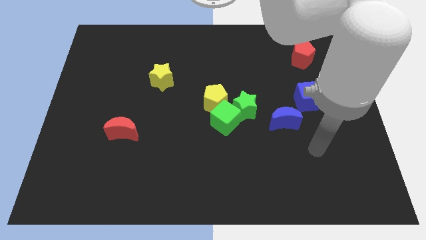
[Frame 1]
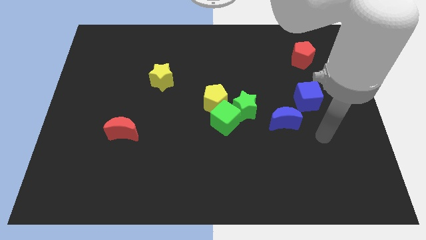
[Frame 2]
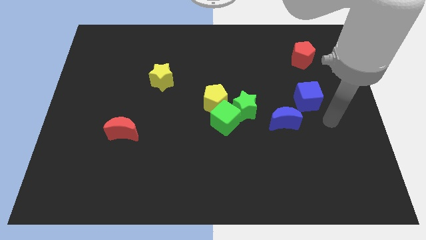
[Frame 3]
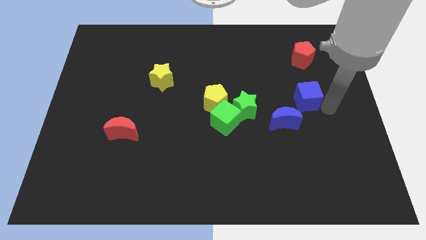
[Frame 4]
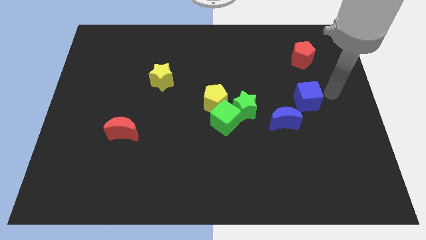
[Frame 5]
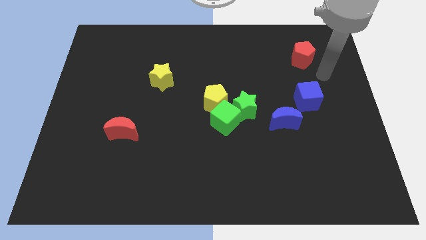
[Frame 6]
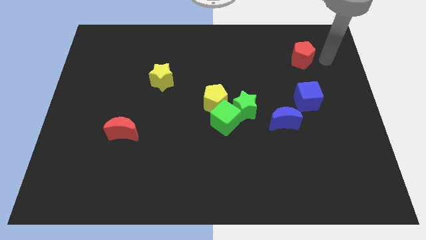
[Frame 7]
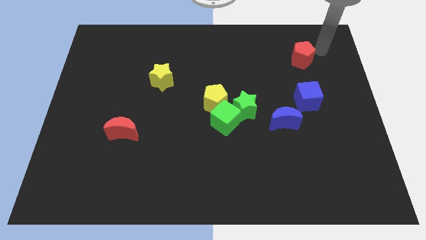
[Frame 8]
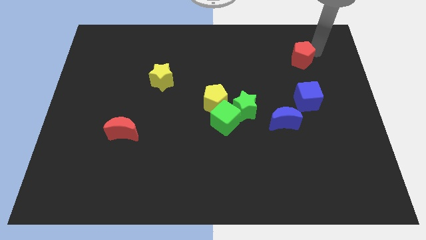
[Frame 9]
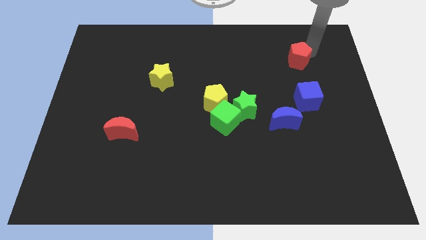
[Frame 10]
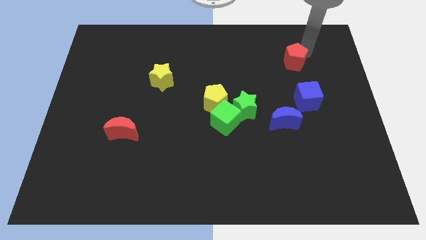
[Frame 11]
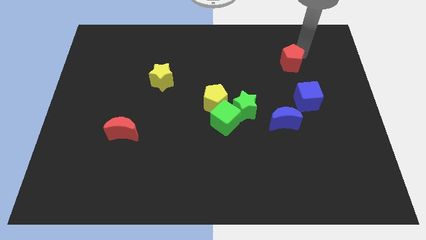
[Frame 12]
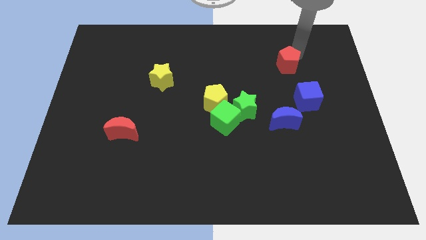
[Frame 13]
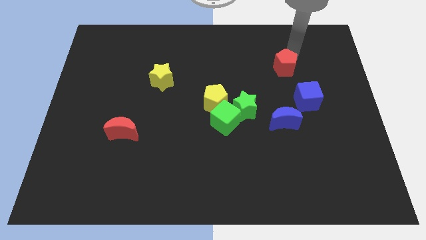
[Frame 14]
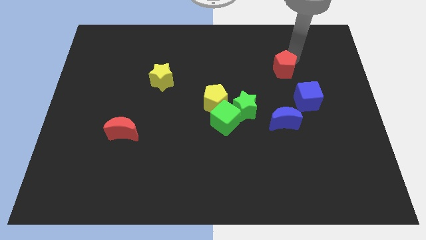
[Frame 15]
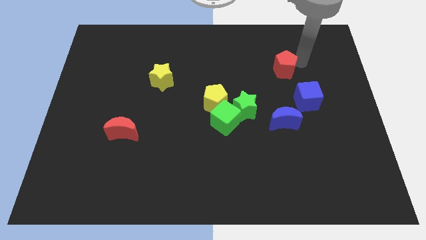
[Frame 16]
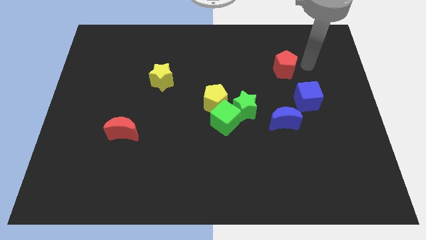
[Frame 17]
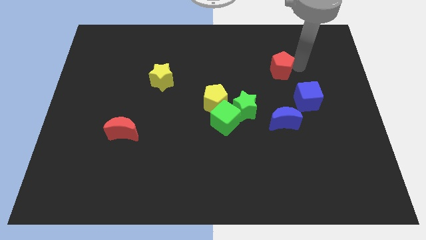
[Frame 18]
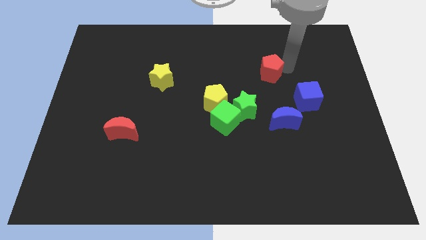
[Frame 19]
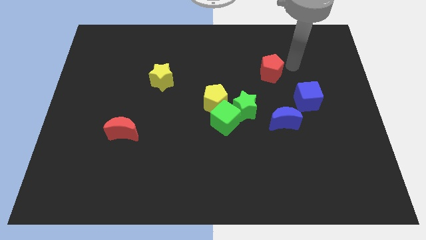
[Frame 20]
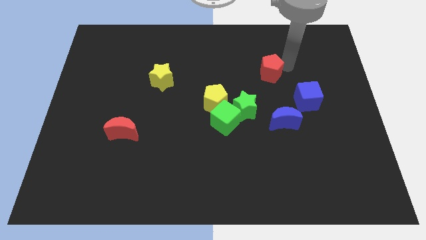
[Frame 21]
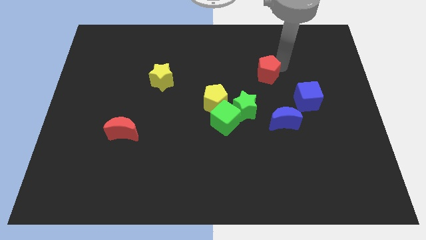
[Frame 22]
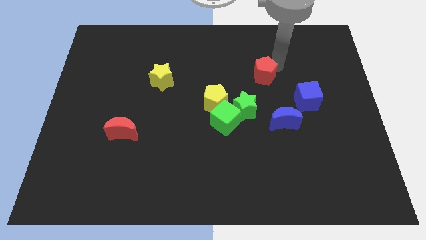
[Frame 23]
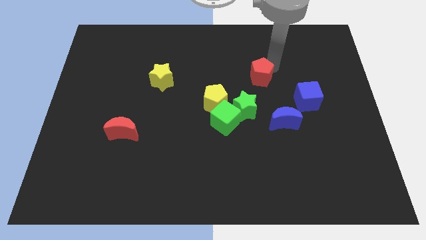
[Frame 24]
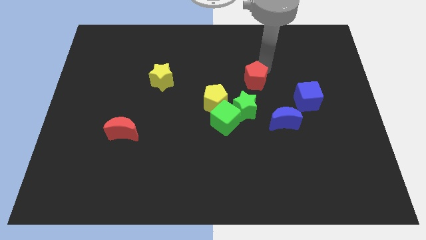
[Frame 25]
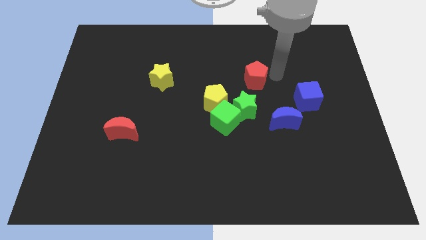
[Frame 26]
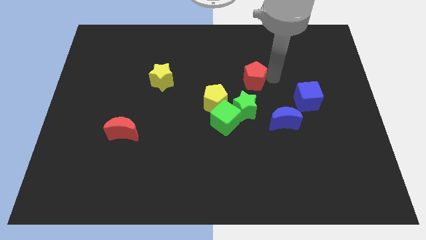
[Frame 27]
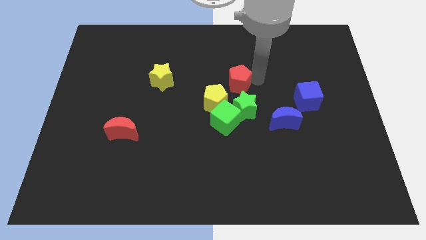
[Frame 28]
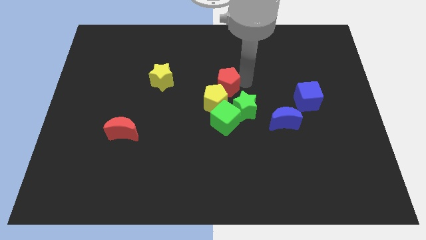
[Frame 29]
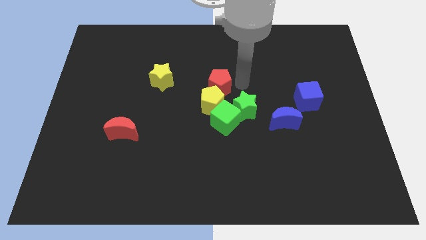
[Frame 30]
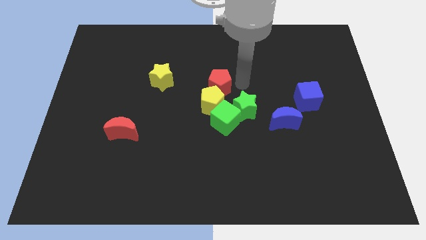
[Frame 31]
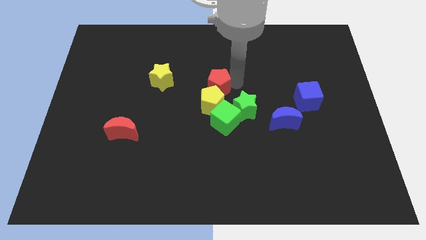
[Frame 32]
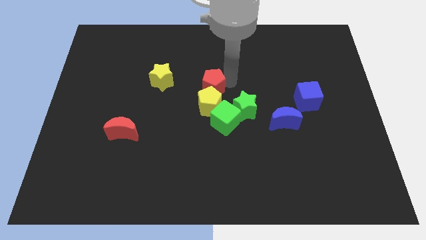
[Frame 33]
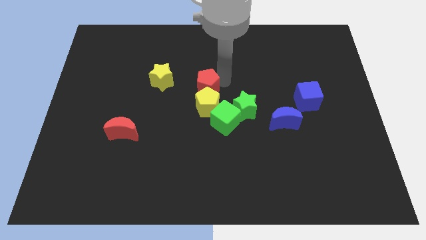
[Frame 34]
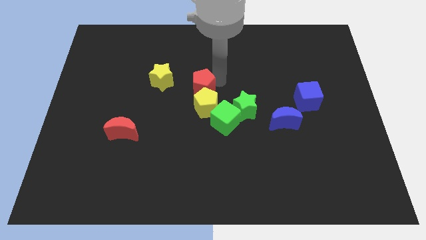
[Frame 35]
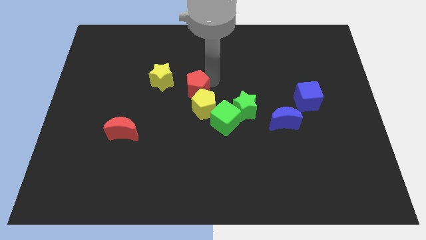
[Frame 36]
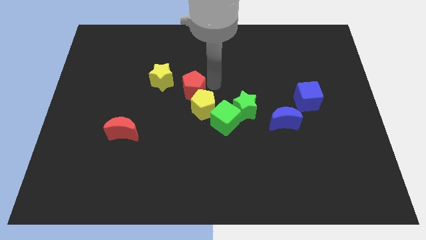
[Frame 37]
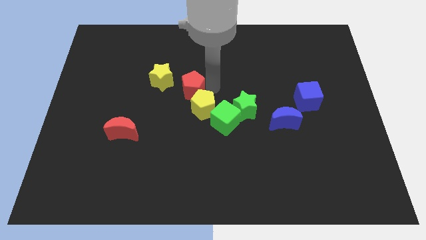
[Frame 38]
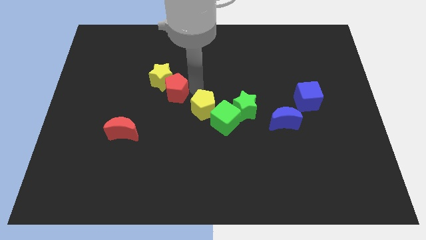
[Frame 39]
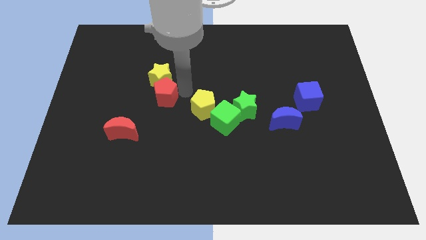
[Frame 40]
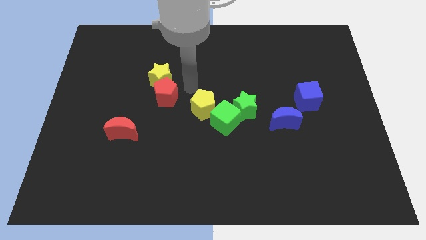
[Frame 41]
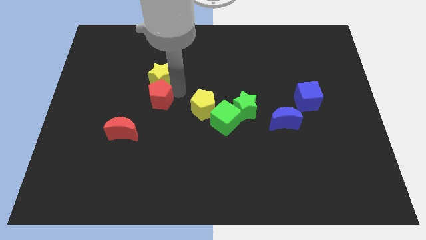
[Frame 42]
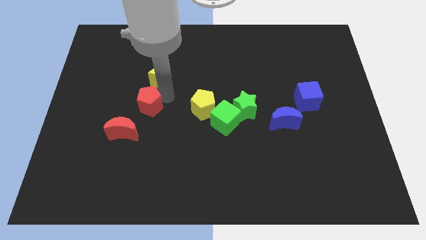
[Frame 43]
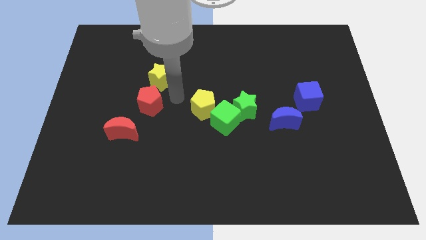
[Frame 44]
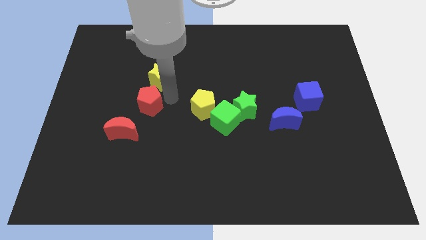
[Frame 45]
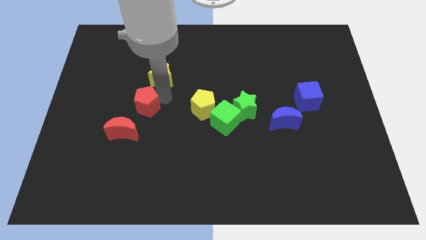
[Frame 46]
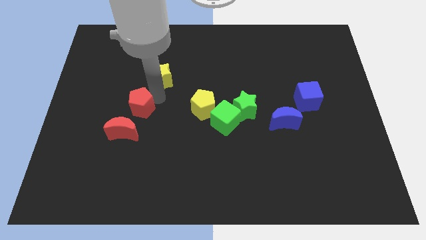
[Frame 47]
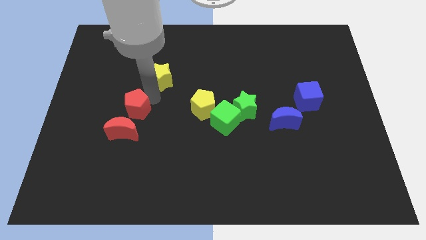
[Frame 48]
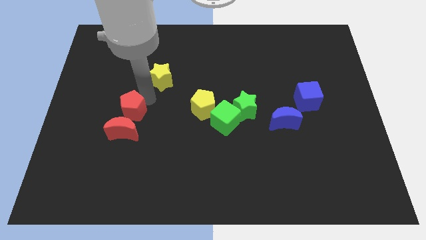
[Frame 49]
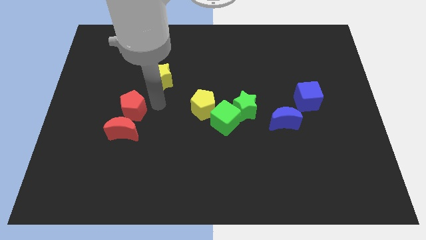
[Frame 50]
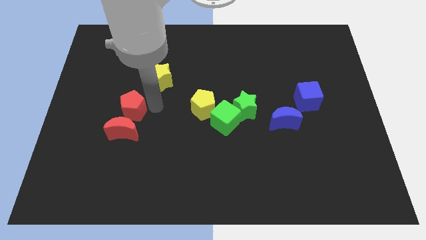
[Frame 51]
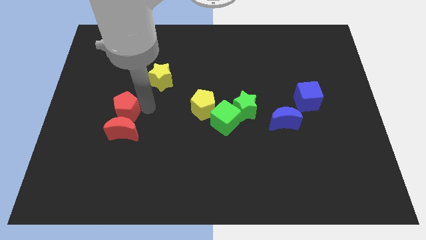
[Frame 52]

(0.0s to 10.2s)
push the red pentagon to the top left of the red moon

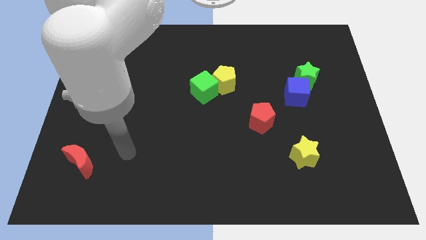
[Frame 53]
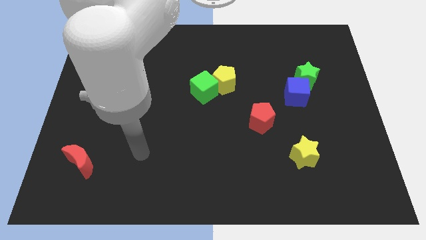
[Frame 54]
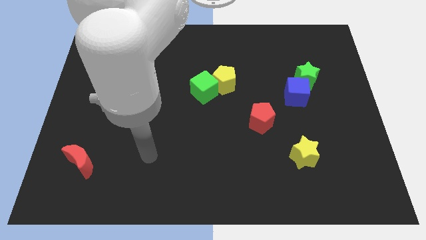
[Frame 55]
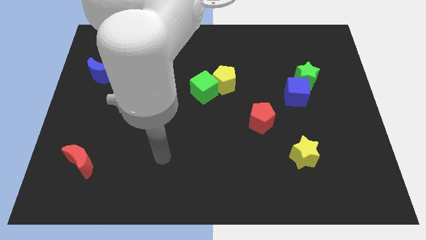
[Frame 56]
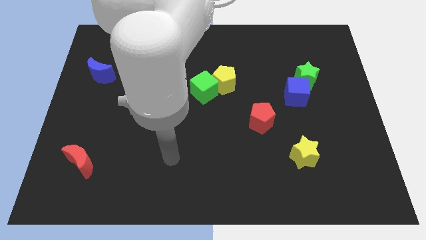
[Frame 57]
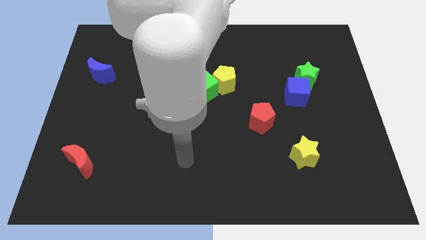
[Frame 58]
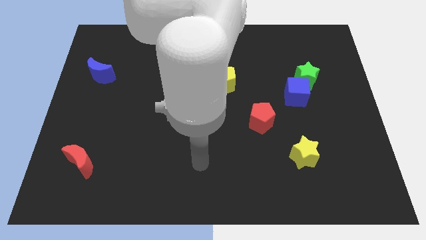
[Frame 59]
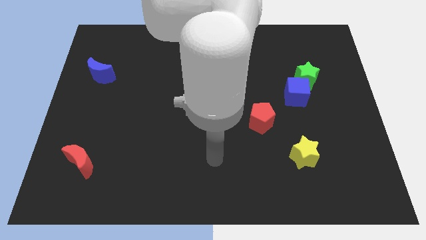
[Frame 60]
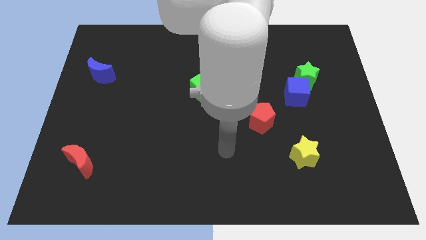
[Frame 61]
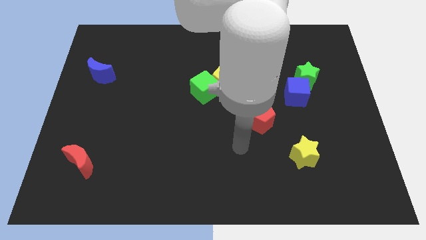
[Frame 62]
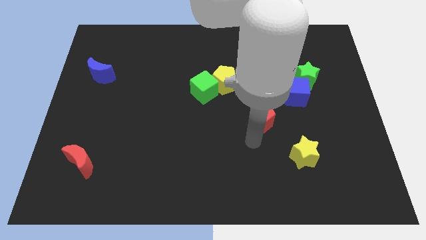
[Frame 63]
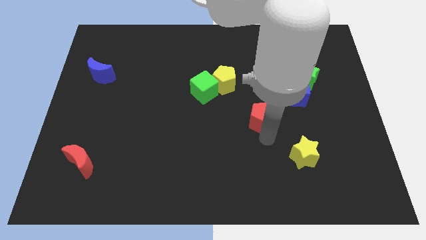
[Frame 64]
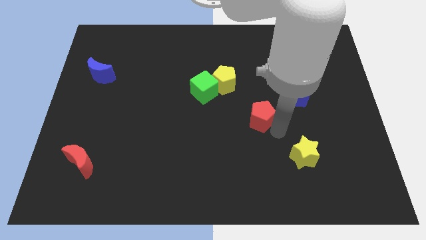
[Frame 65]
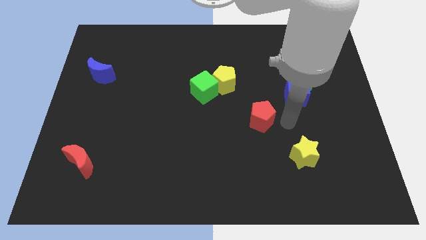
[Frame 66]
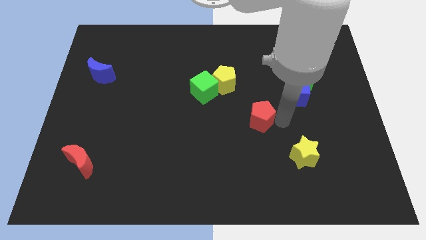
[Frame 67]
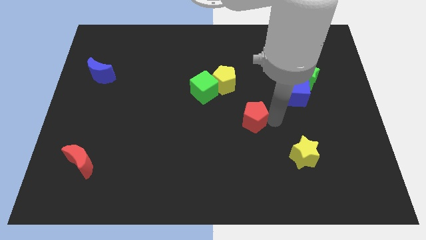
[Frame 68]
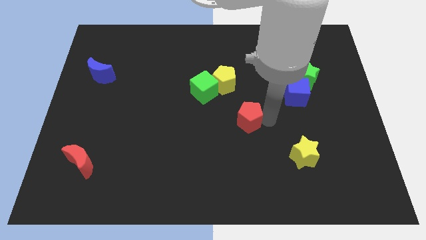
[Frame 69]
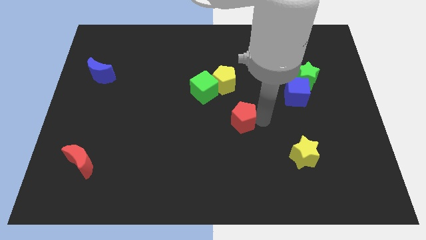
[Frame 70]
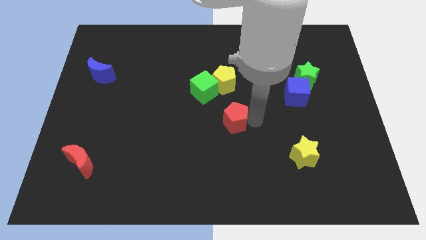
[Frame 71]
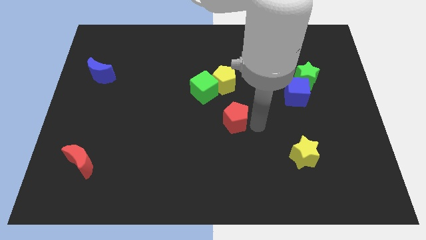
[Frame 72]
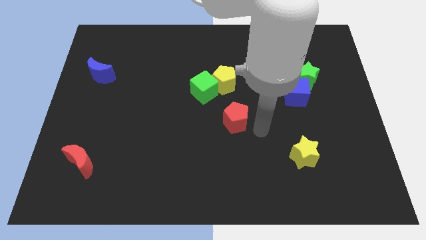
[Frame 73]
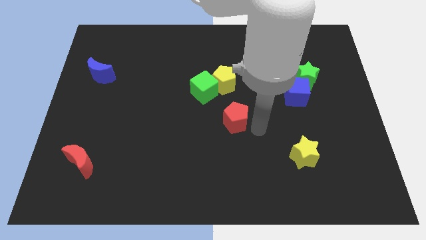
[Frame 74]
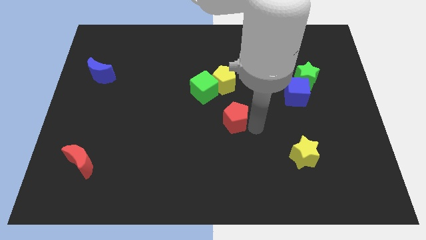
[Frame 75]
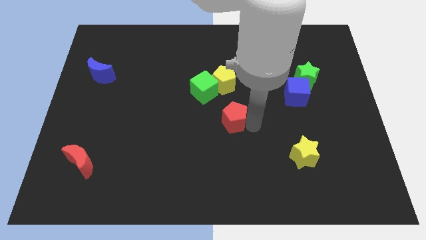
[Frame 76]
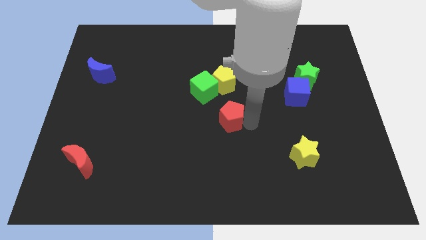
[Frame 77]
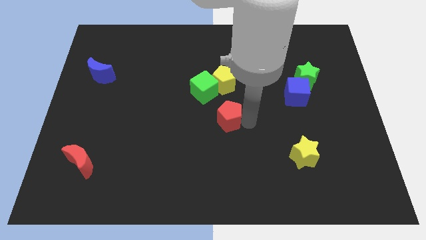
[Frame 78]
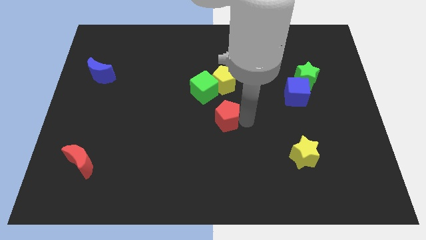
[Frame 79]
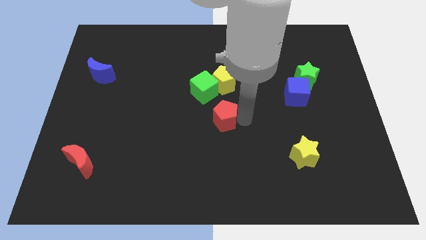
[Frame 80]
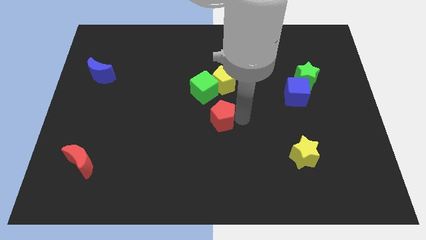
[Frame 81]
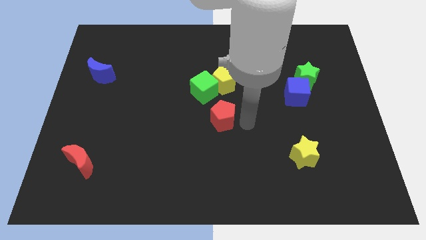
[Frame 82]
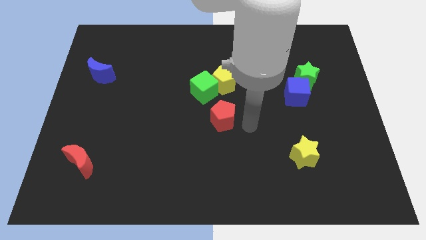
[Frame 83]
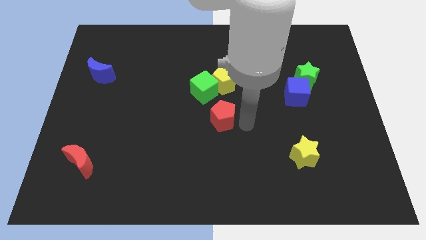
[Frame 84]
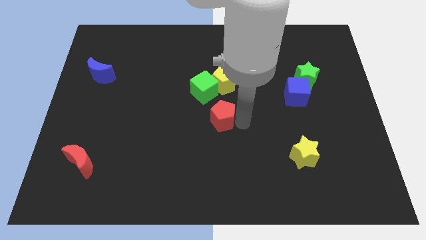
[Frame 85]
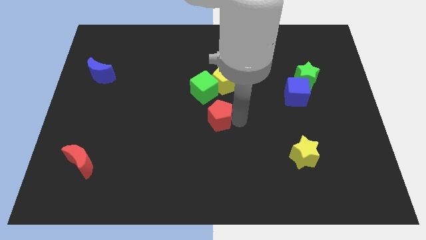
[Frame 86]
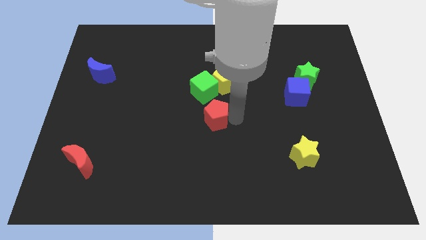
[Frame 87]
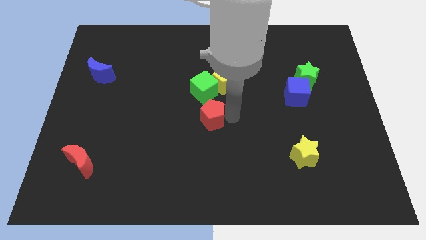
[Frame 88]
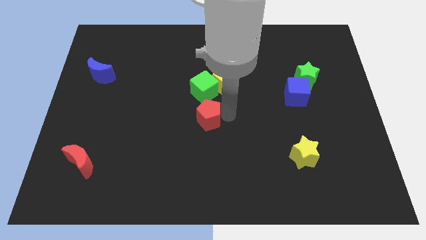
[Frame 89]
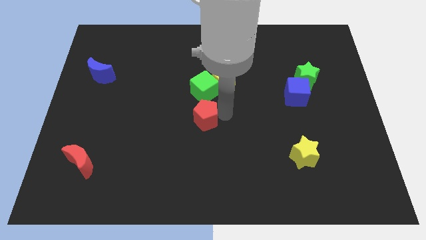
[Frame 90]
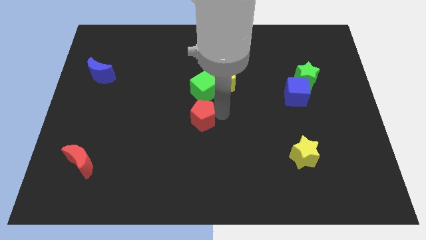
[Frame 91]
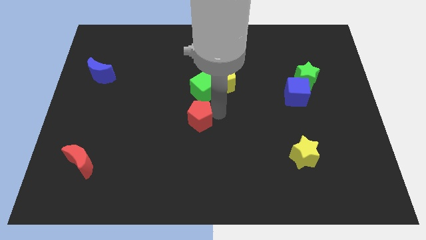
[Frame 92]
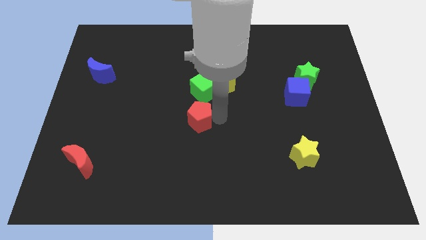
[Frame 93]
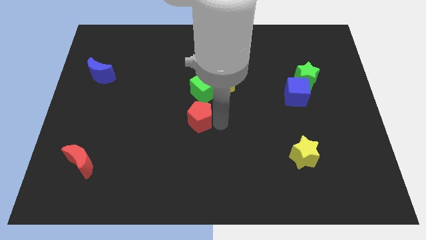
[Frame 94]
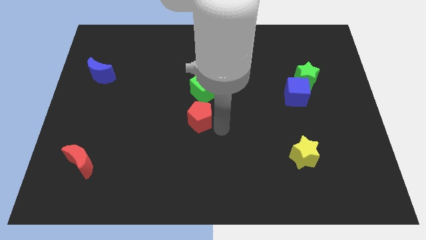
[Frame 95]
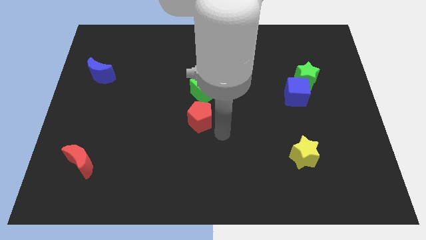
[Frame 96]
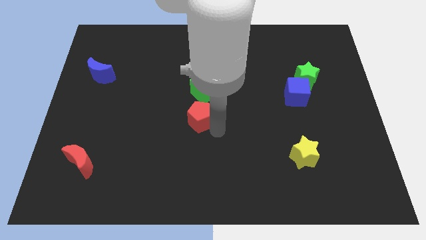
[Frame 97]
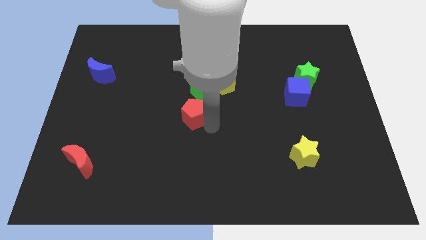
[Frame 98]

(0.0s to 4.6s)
move the red pentagon to the bottom left of the green cube
